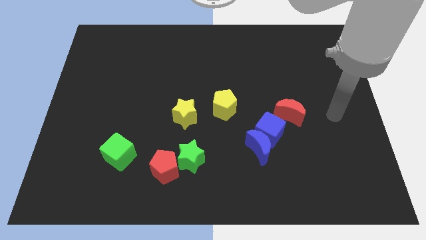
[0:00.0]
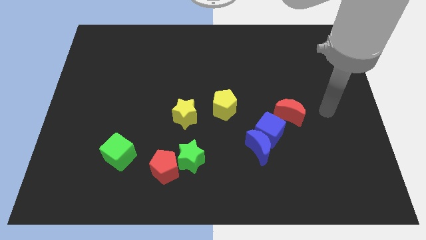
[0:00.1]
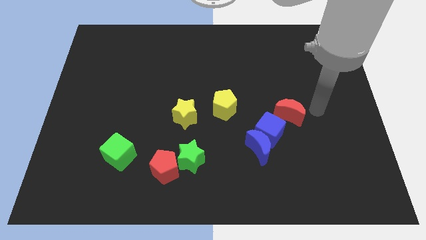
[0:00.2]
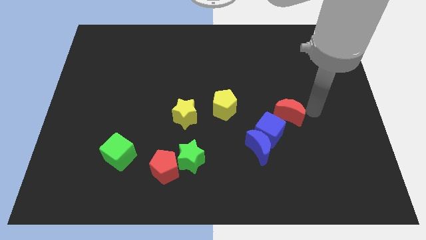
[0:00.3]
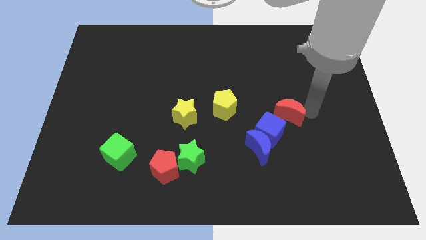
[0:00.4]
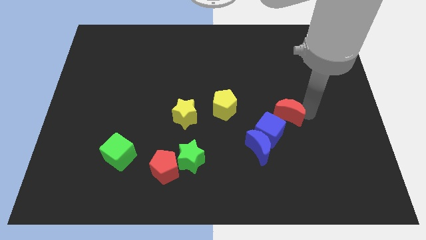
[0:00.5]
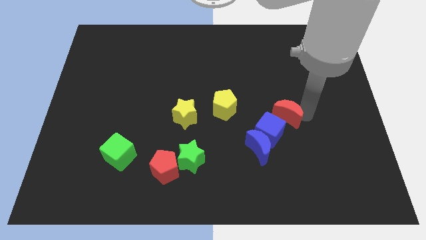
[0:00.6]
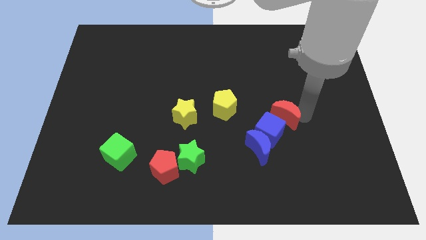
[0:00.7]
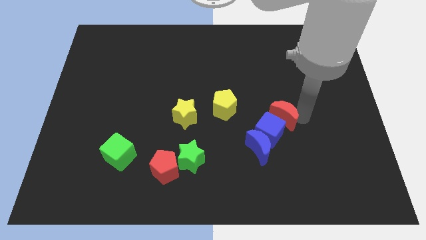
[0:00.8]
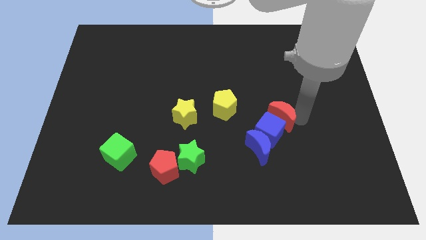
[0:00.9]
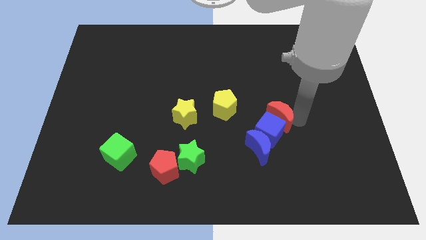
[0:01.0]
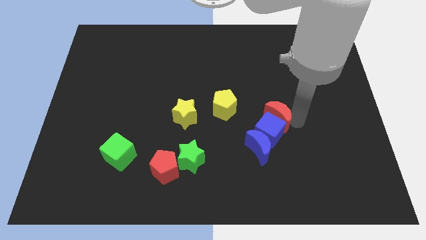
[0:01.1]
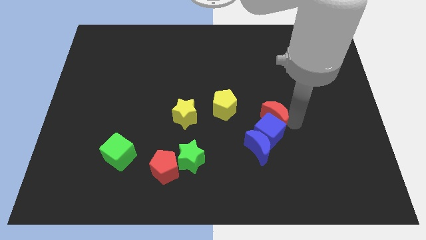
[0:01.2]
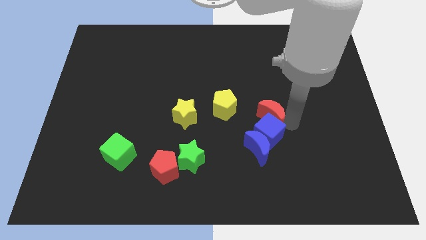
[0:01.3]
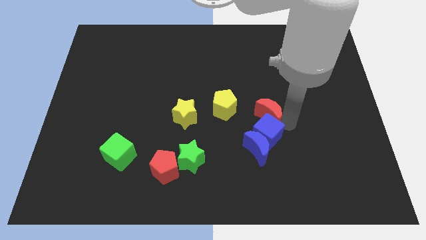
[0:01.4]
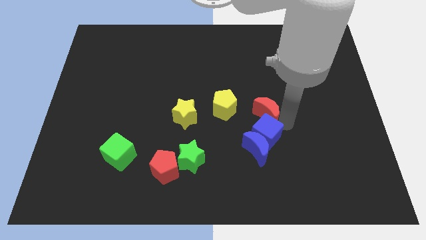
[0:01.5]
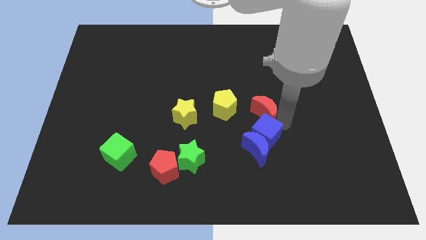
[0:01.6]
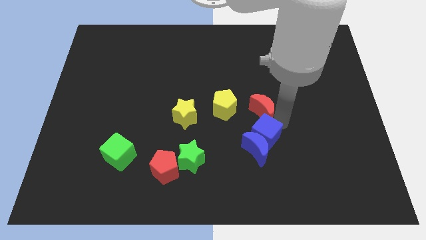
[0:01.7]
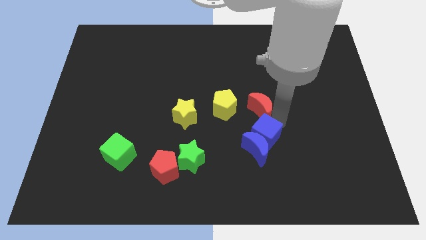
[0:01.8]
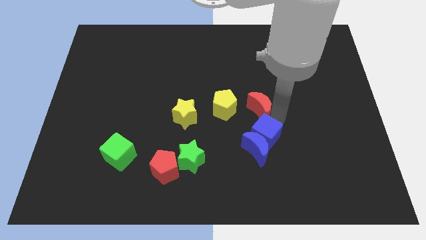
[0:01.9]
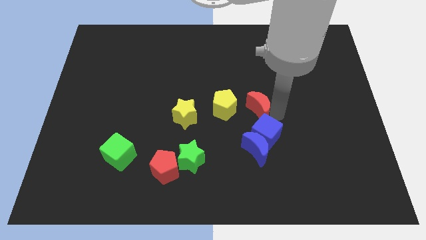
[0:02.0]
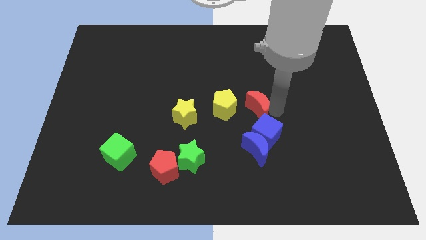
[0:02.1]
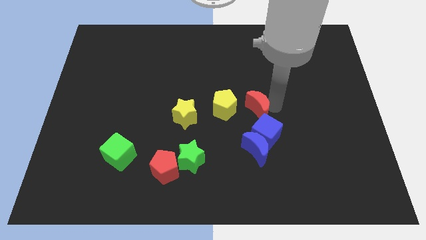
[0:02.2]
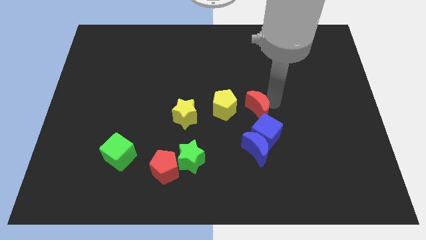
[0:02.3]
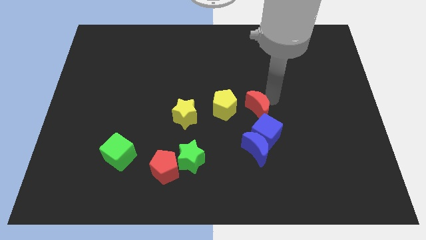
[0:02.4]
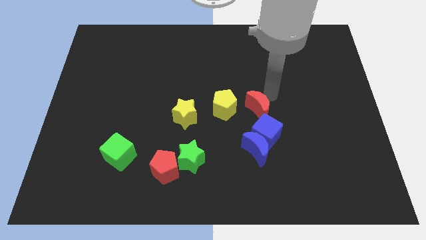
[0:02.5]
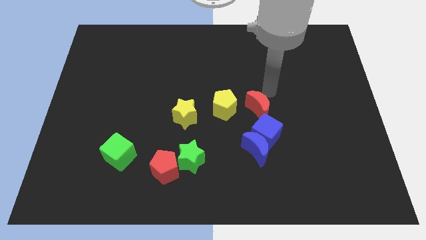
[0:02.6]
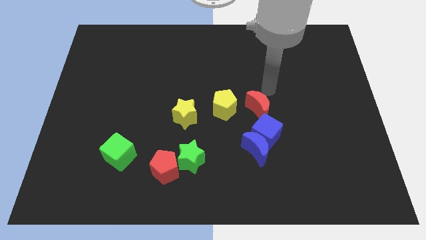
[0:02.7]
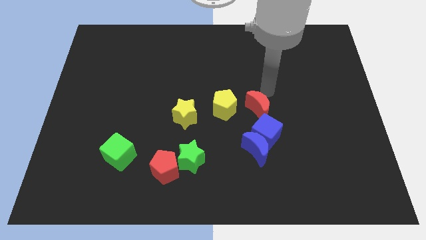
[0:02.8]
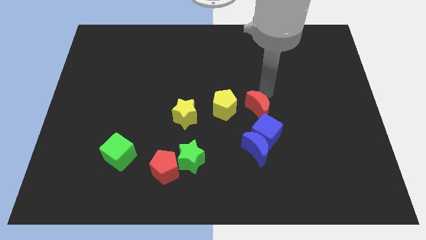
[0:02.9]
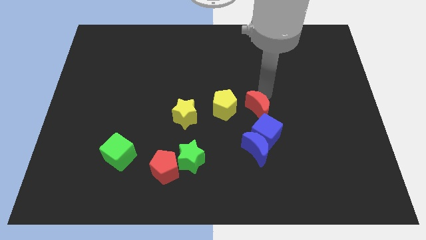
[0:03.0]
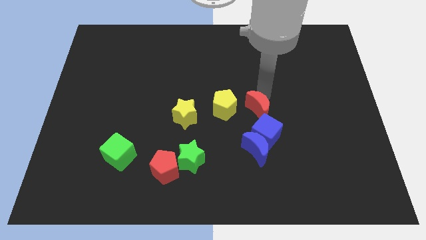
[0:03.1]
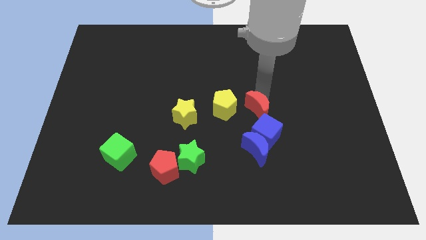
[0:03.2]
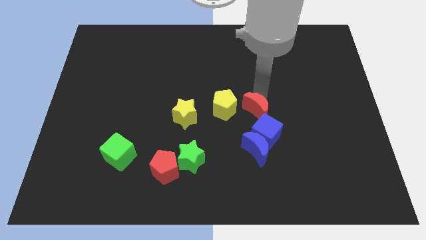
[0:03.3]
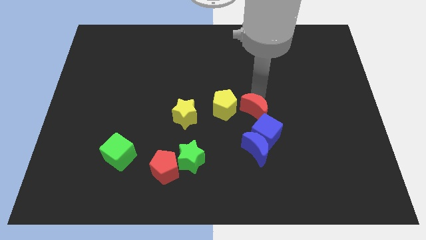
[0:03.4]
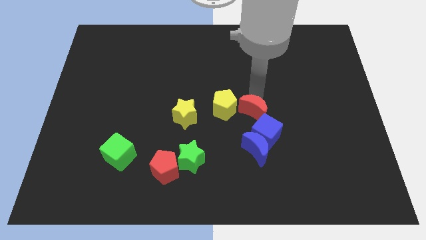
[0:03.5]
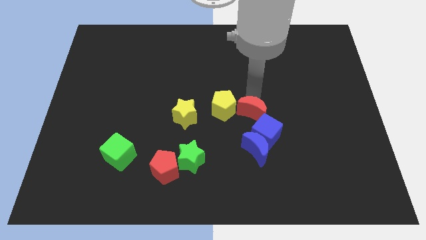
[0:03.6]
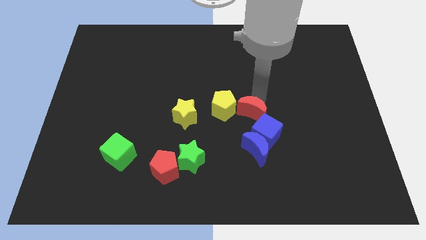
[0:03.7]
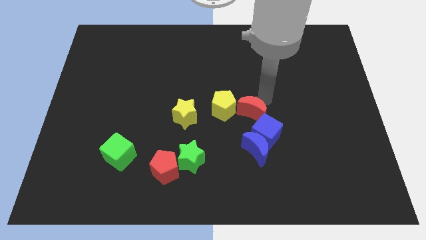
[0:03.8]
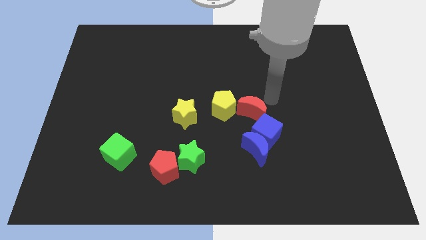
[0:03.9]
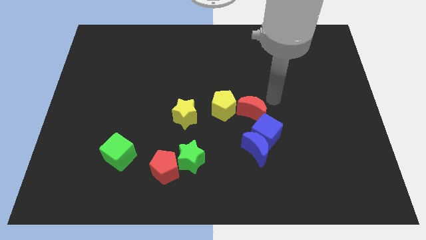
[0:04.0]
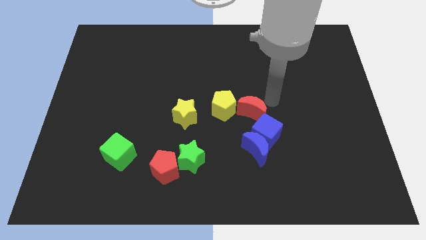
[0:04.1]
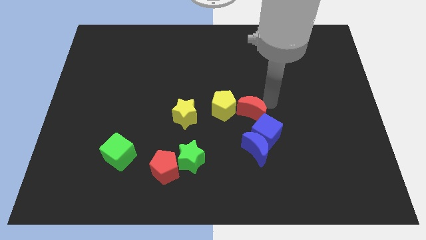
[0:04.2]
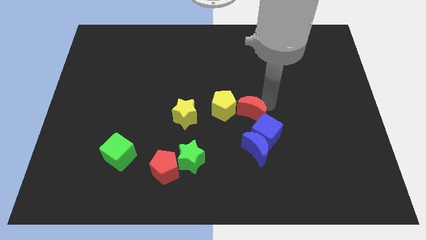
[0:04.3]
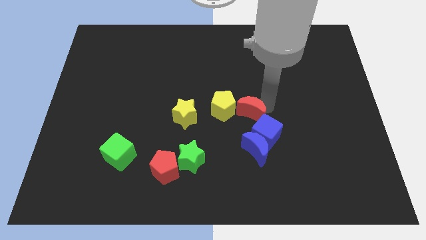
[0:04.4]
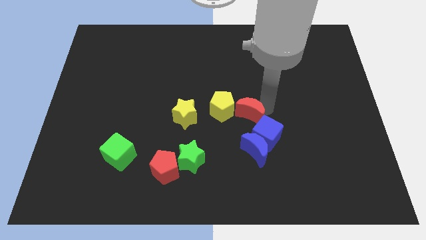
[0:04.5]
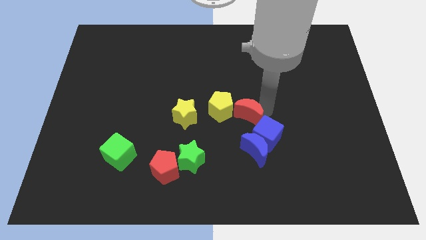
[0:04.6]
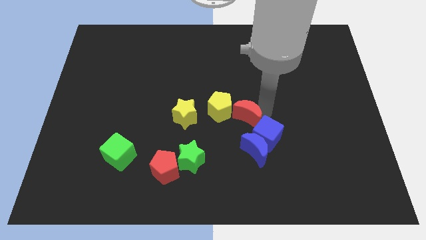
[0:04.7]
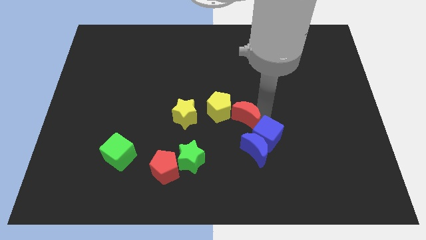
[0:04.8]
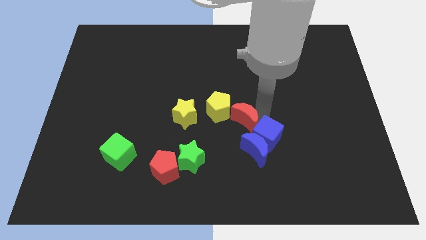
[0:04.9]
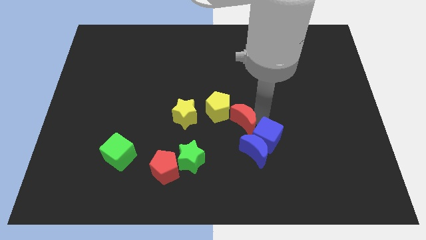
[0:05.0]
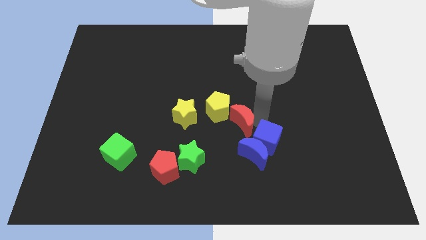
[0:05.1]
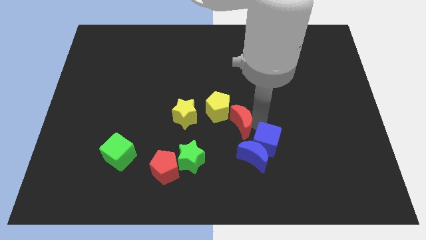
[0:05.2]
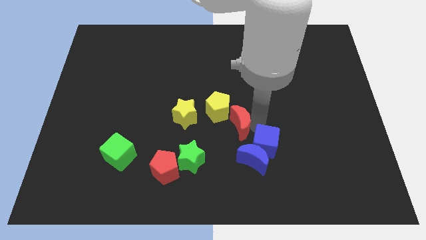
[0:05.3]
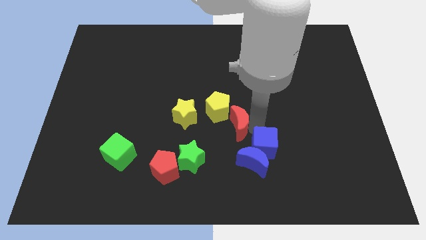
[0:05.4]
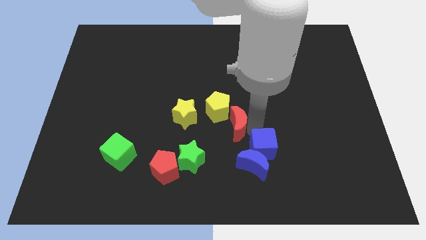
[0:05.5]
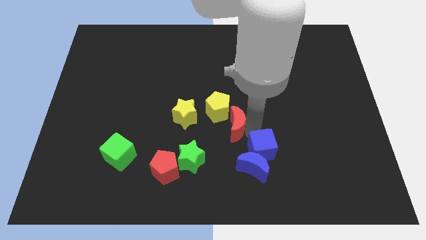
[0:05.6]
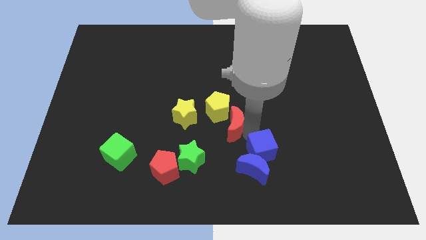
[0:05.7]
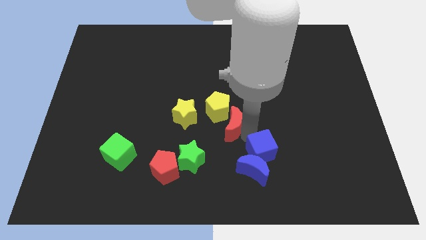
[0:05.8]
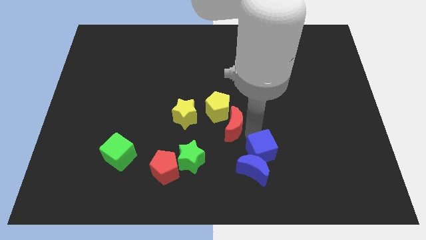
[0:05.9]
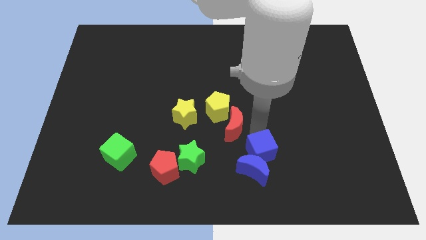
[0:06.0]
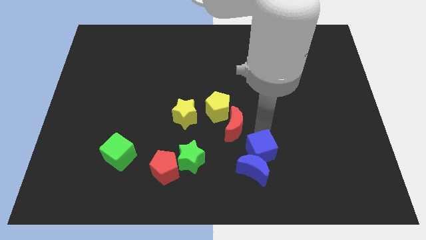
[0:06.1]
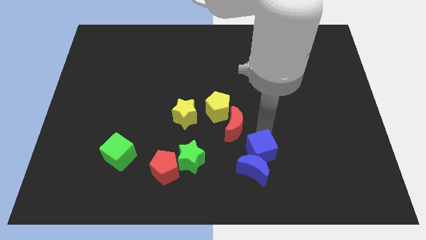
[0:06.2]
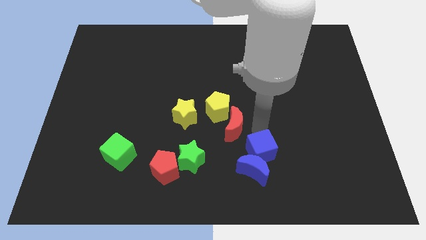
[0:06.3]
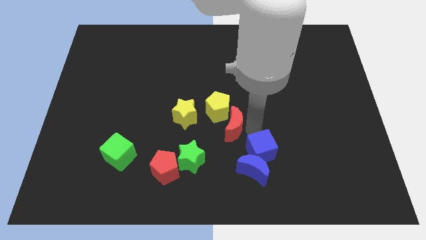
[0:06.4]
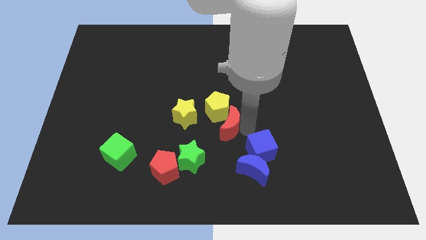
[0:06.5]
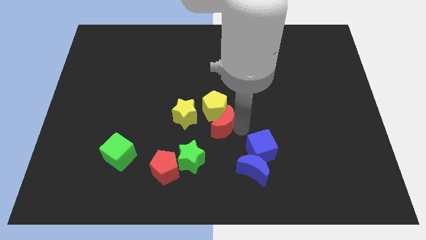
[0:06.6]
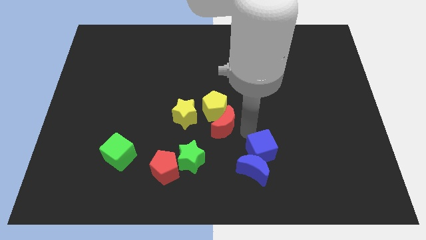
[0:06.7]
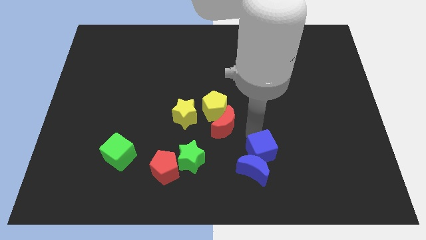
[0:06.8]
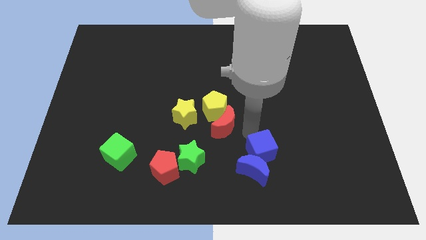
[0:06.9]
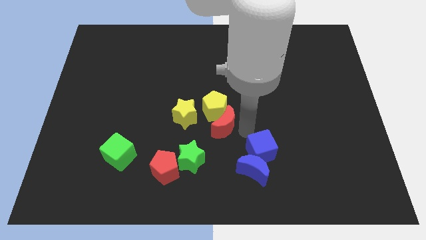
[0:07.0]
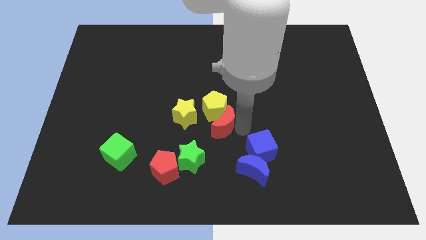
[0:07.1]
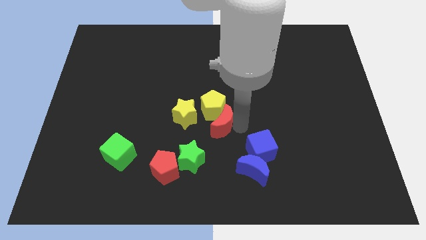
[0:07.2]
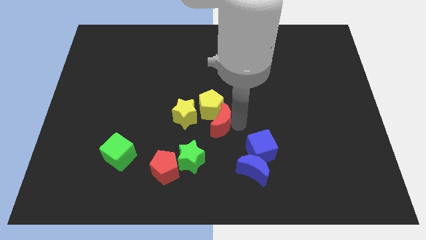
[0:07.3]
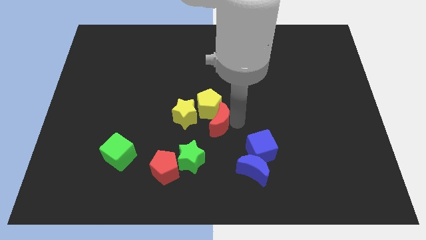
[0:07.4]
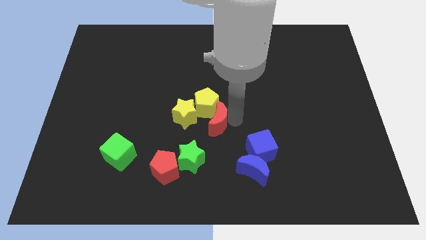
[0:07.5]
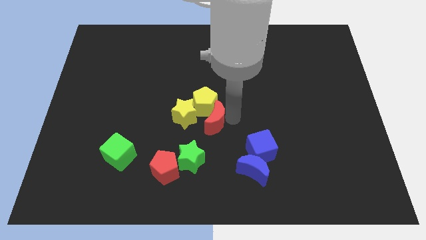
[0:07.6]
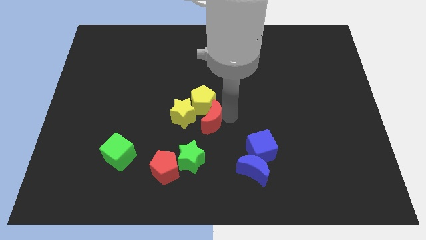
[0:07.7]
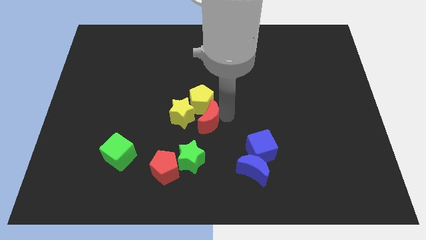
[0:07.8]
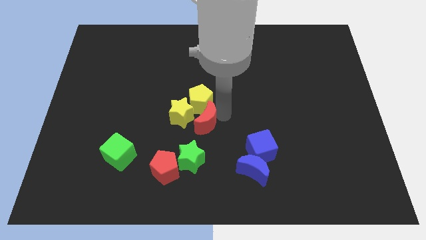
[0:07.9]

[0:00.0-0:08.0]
move the red moon next to the yellow star
